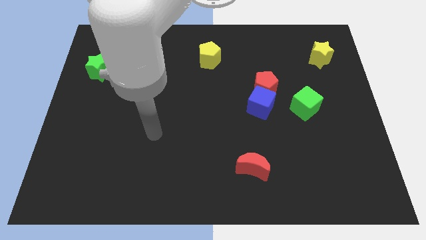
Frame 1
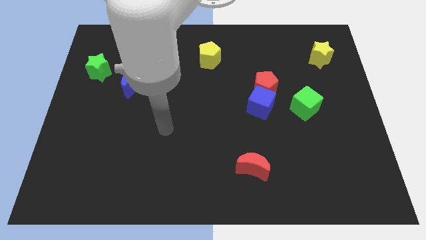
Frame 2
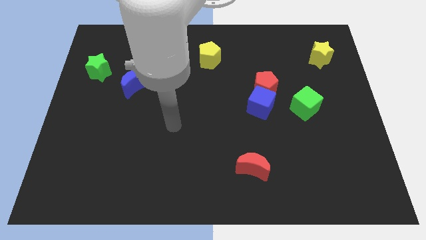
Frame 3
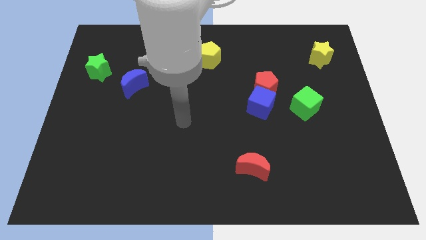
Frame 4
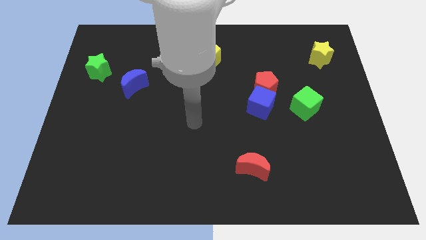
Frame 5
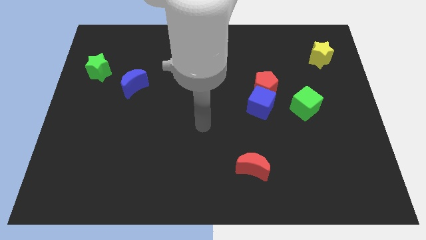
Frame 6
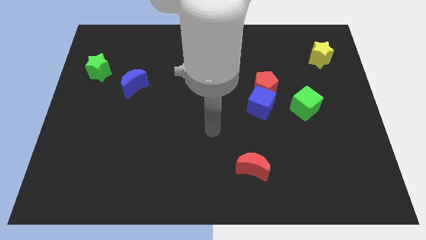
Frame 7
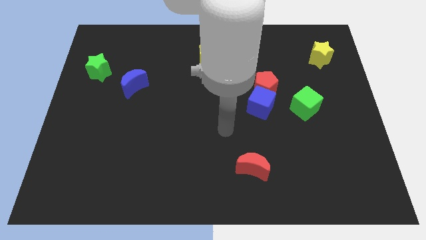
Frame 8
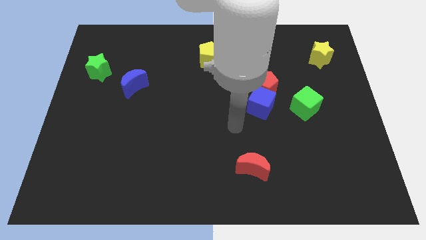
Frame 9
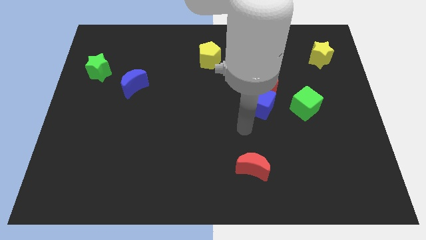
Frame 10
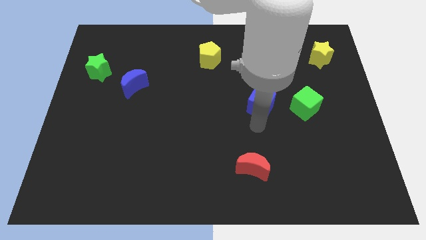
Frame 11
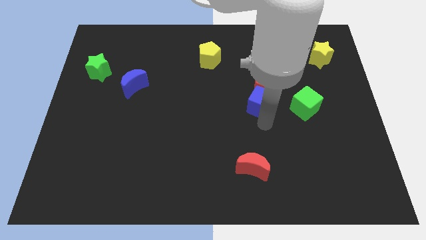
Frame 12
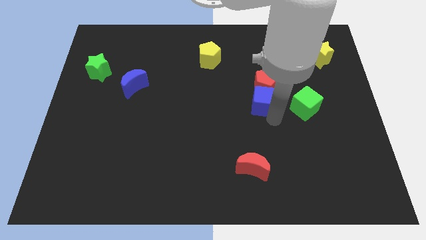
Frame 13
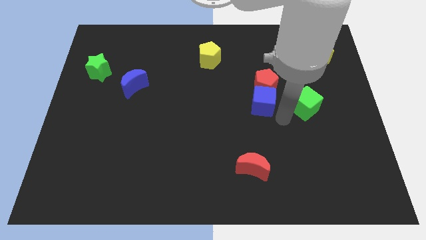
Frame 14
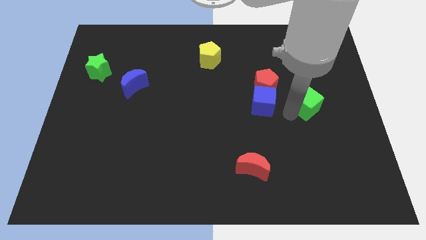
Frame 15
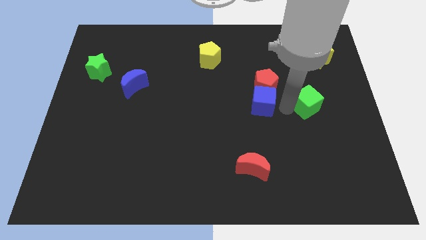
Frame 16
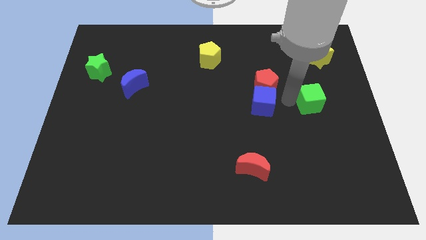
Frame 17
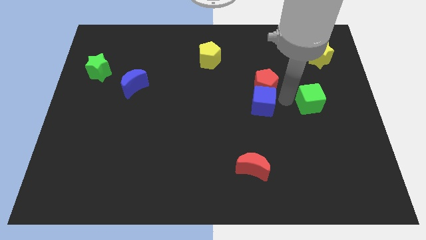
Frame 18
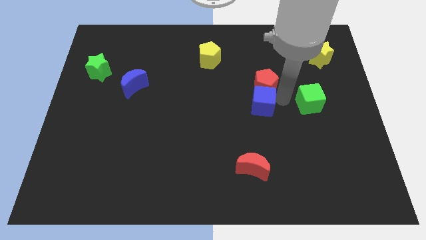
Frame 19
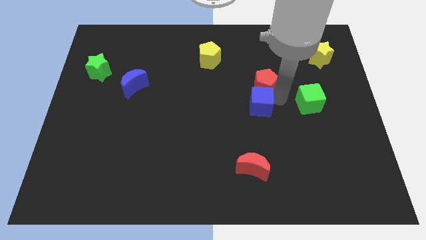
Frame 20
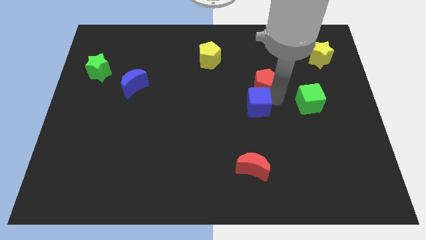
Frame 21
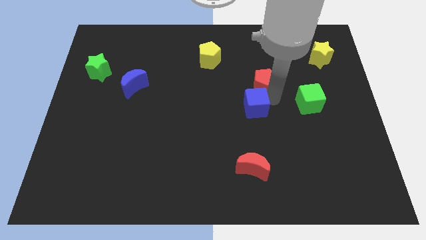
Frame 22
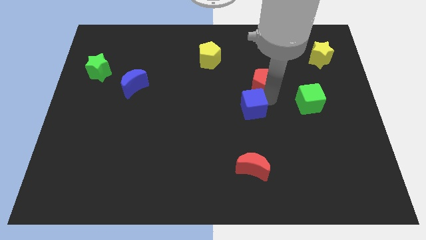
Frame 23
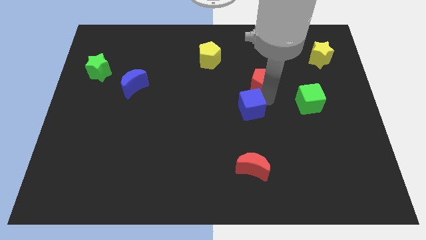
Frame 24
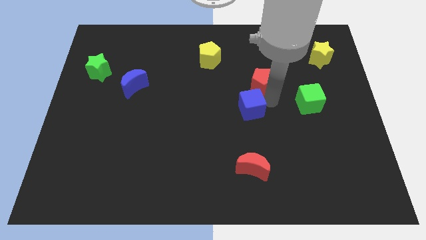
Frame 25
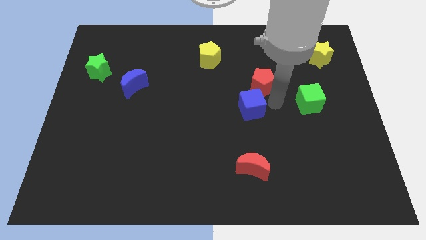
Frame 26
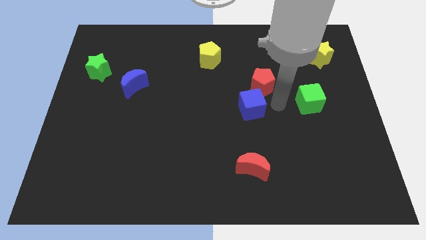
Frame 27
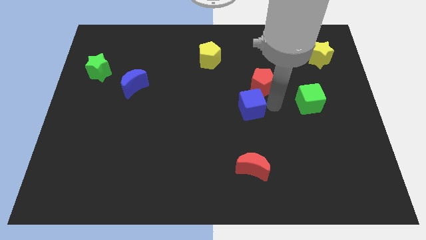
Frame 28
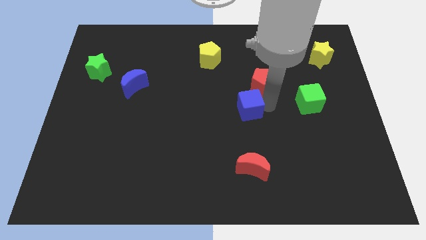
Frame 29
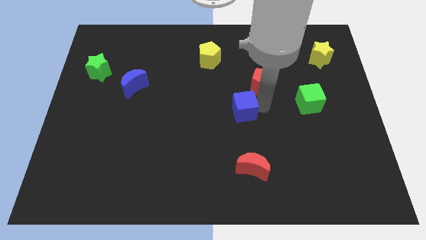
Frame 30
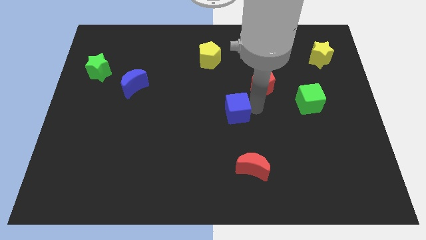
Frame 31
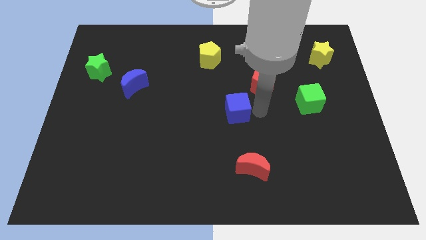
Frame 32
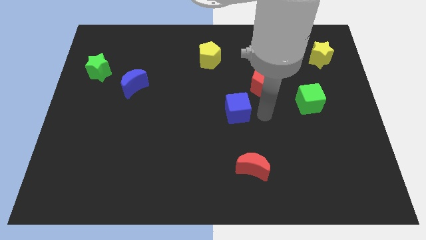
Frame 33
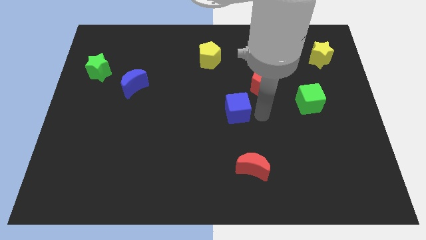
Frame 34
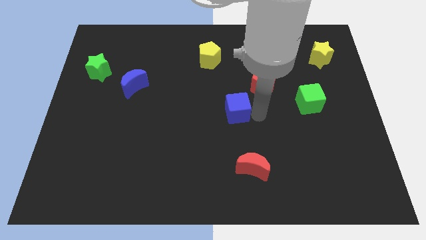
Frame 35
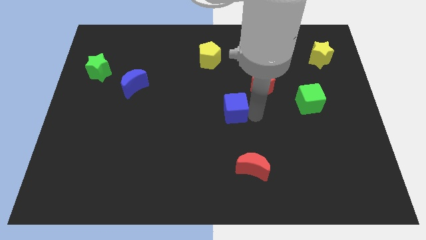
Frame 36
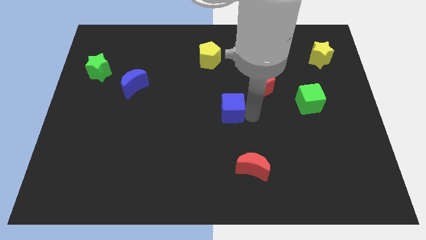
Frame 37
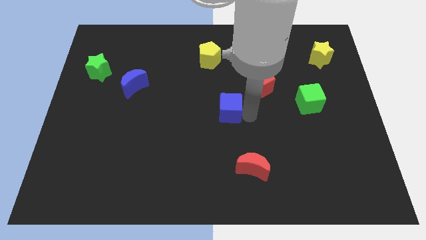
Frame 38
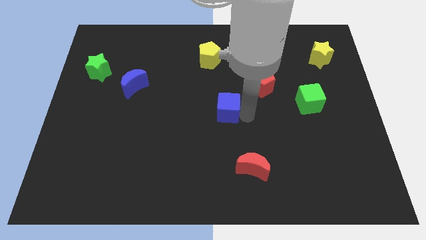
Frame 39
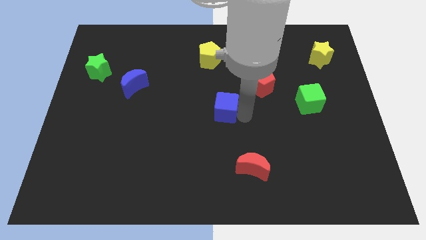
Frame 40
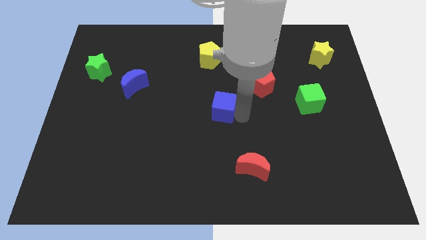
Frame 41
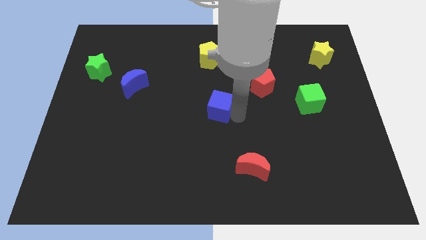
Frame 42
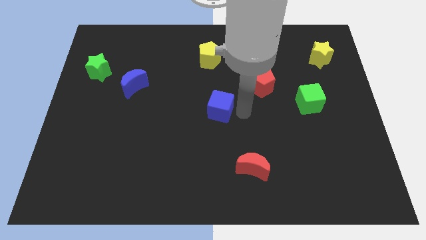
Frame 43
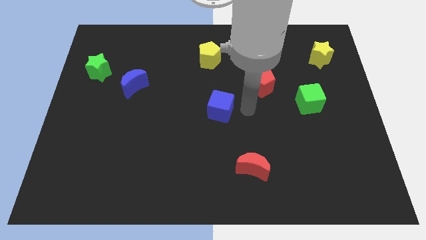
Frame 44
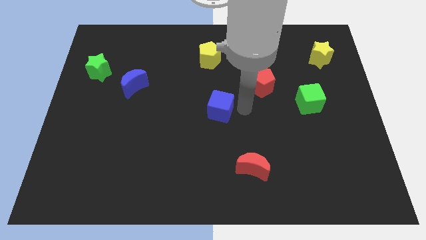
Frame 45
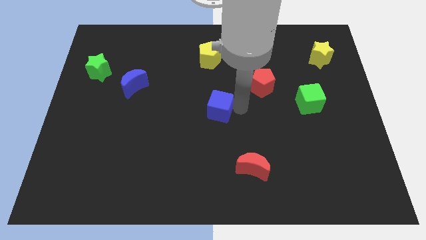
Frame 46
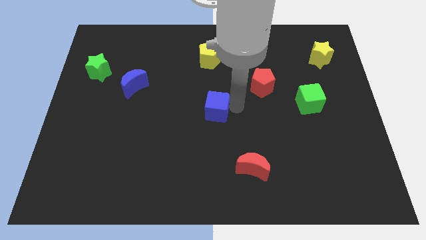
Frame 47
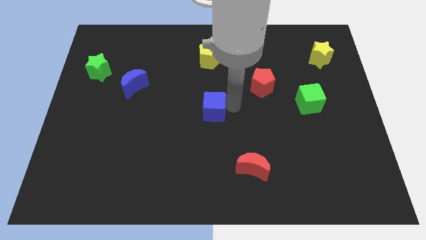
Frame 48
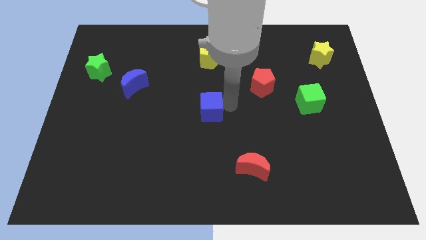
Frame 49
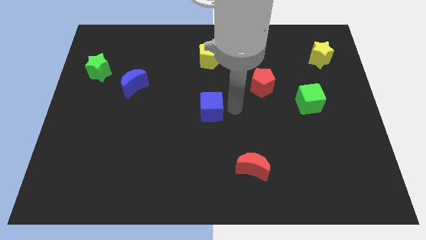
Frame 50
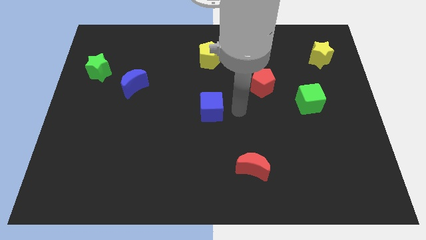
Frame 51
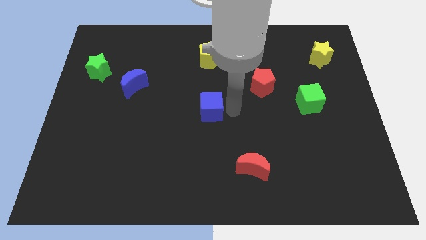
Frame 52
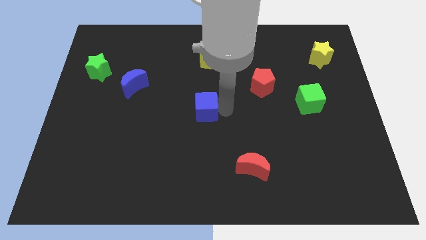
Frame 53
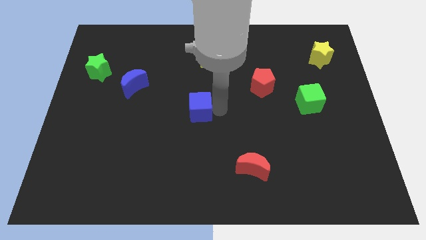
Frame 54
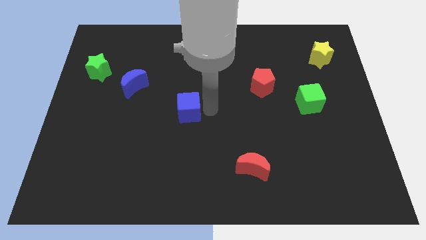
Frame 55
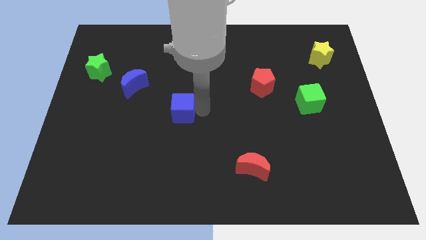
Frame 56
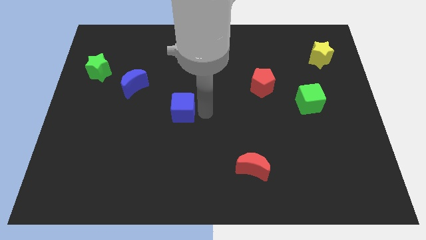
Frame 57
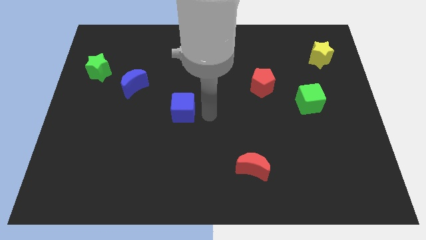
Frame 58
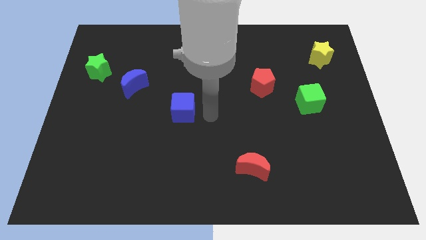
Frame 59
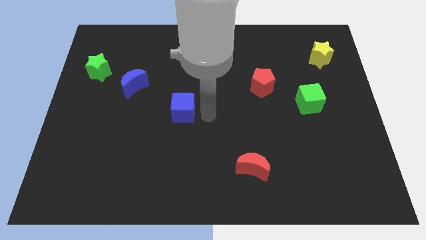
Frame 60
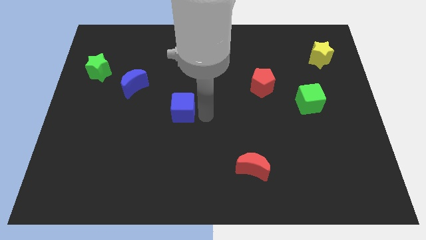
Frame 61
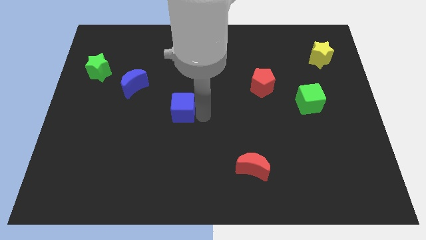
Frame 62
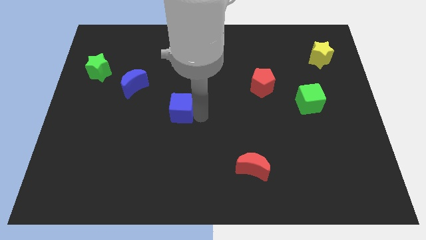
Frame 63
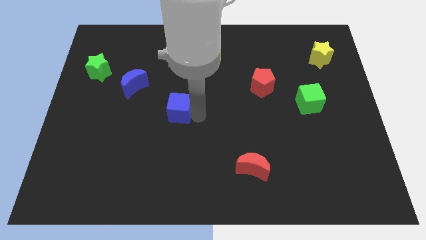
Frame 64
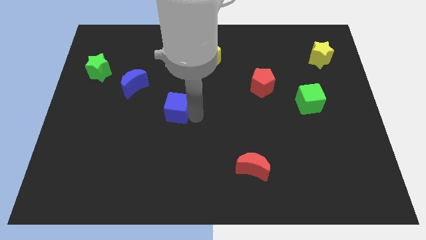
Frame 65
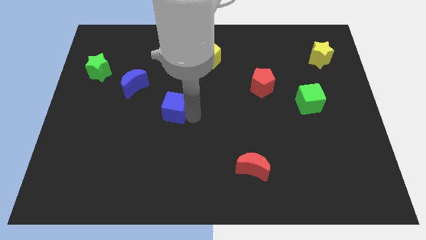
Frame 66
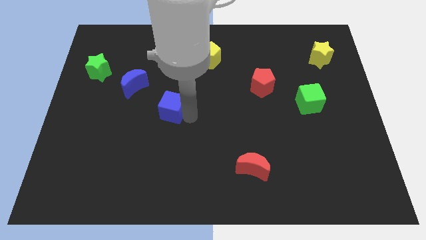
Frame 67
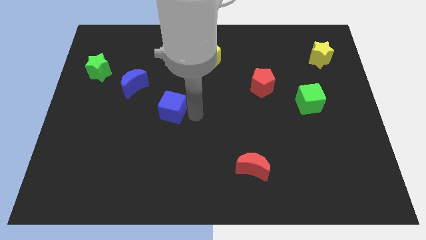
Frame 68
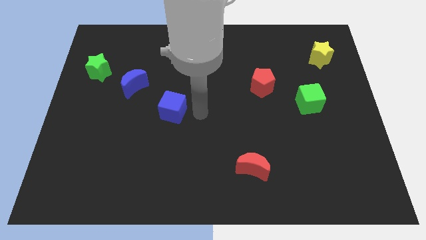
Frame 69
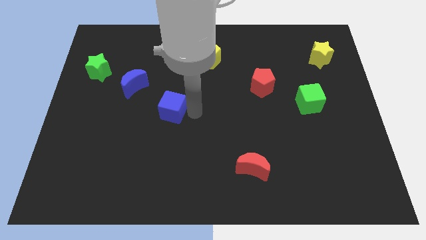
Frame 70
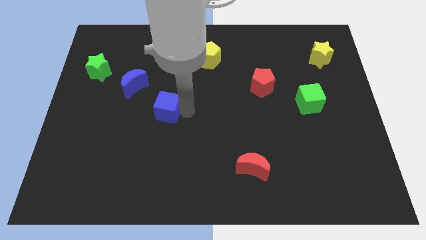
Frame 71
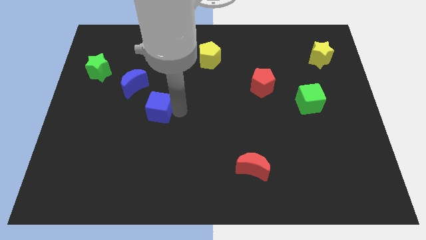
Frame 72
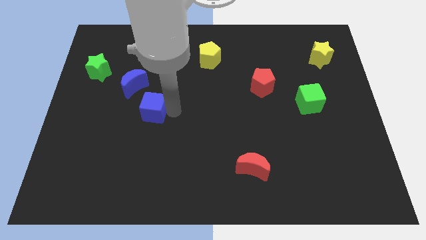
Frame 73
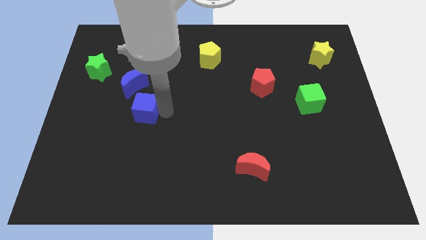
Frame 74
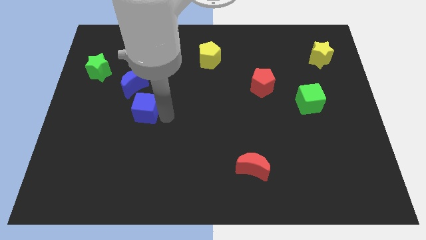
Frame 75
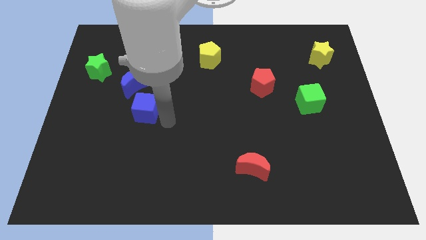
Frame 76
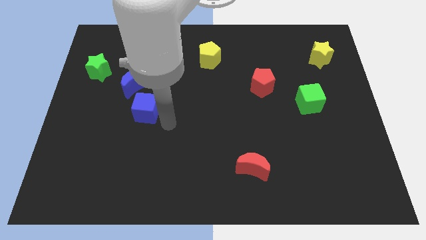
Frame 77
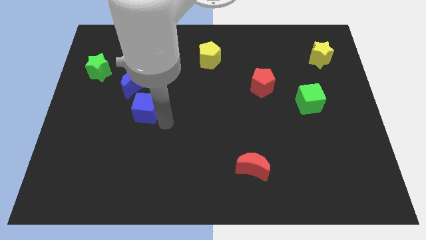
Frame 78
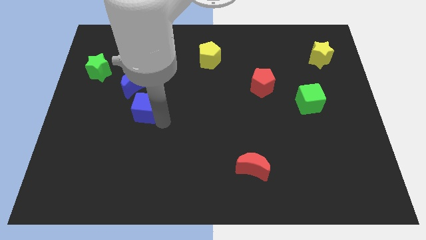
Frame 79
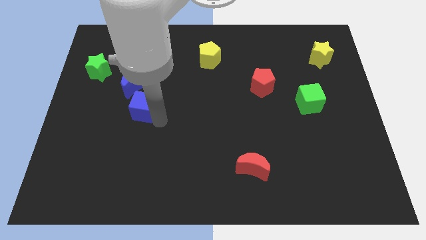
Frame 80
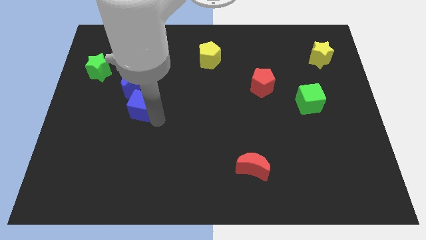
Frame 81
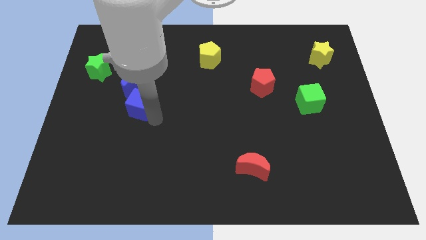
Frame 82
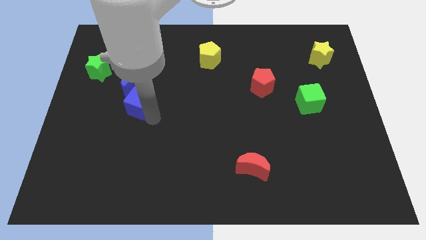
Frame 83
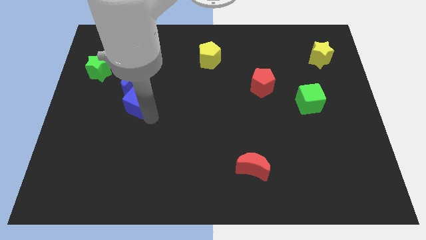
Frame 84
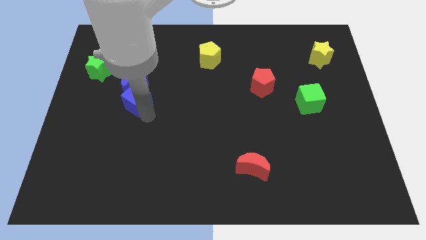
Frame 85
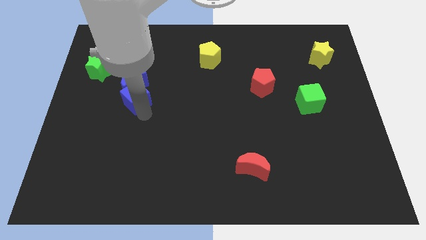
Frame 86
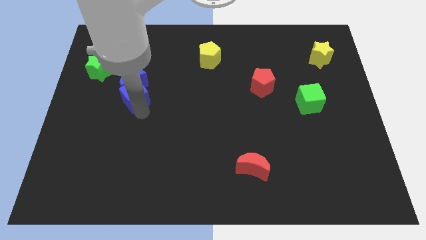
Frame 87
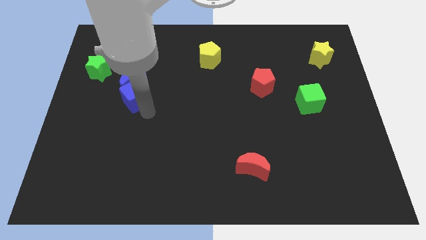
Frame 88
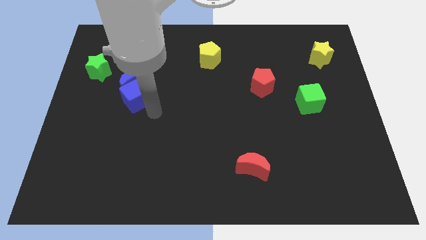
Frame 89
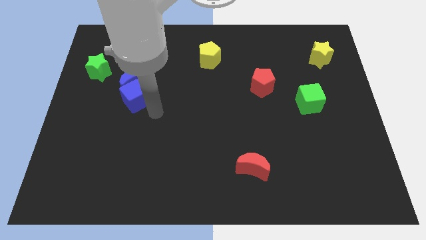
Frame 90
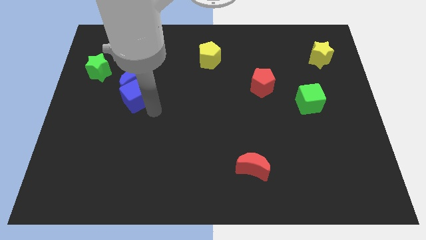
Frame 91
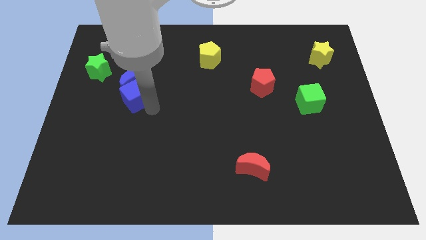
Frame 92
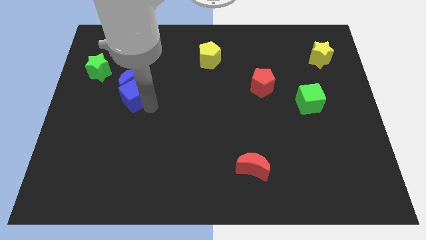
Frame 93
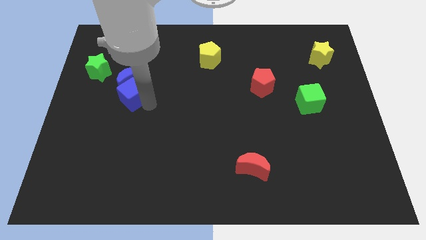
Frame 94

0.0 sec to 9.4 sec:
slide the blue cube to the bottom right of the green star
